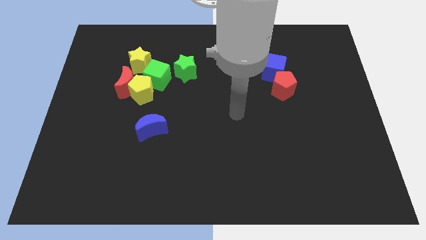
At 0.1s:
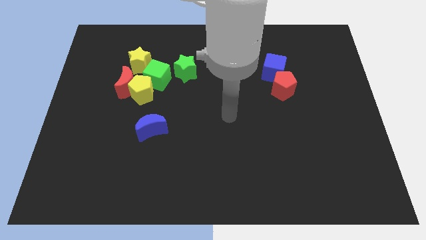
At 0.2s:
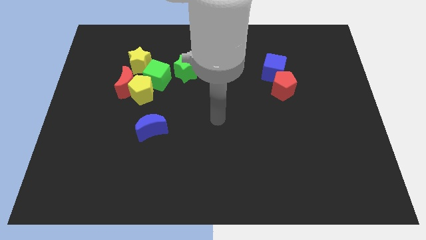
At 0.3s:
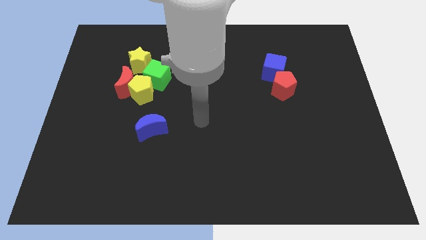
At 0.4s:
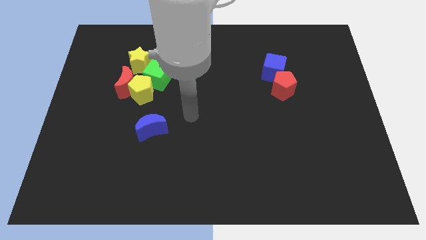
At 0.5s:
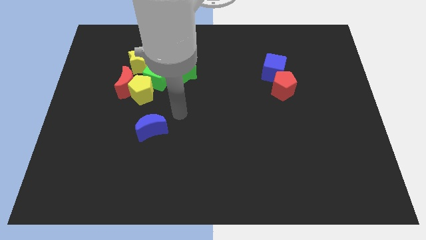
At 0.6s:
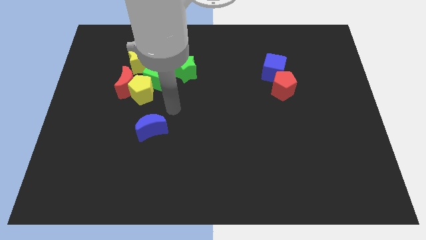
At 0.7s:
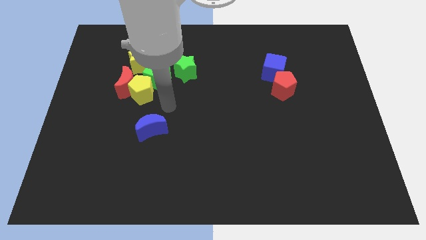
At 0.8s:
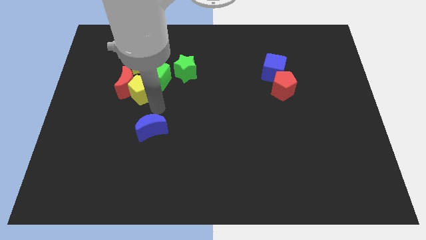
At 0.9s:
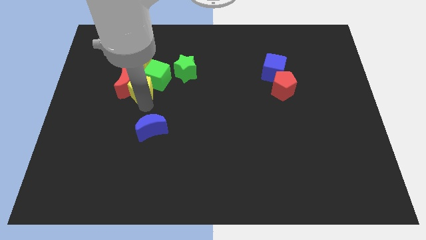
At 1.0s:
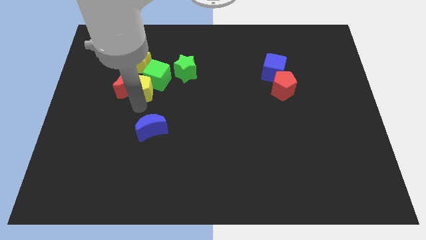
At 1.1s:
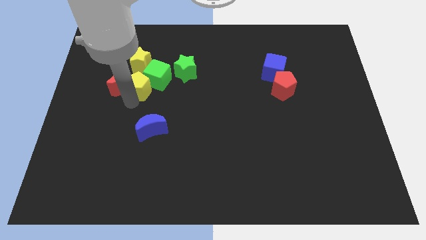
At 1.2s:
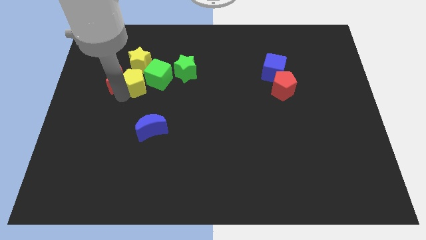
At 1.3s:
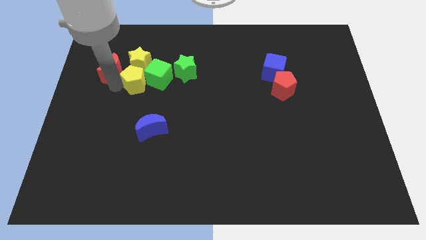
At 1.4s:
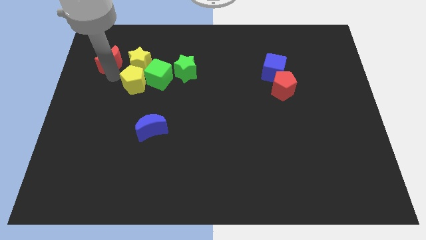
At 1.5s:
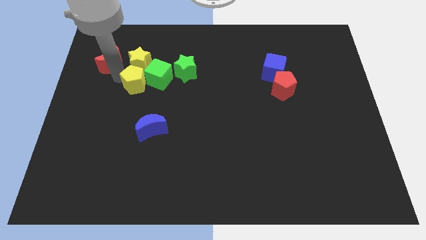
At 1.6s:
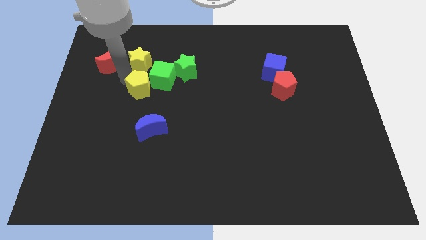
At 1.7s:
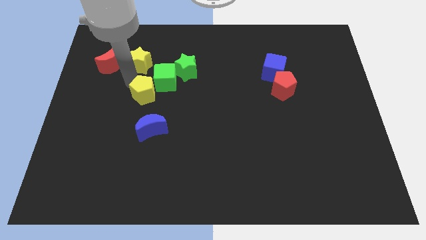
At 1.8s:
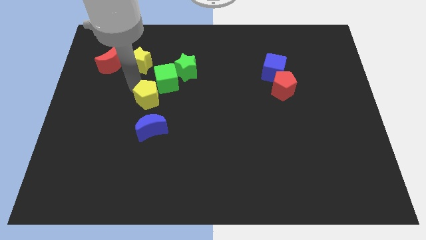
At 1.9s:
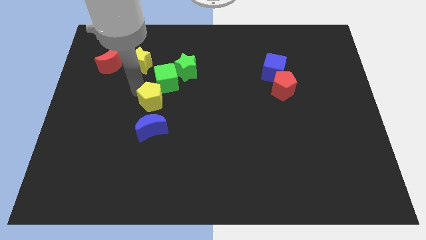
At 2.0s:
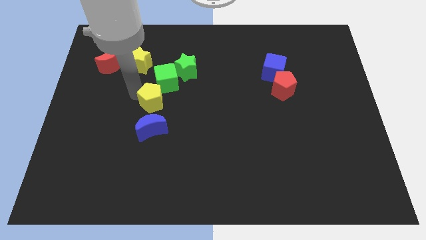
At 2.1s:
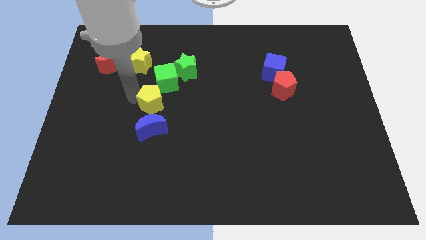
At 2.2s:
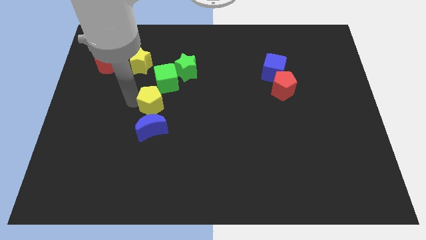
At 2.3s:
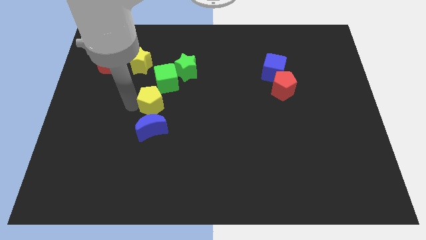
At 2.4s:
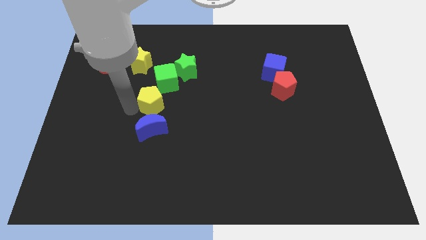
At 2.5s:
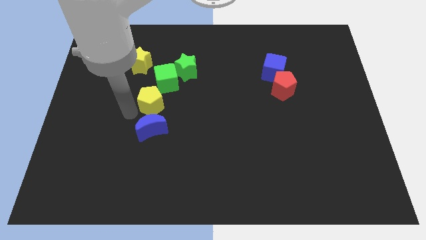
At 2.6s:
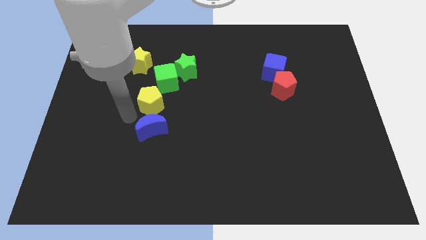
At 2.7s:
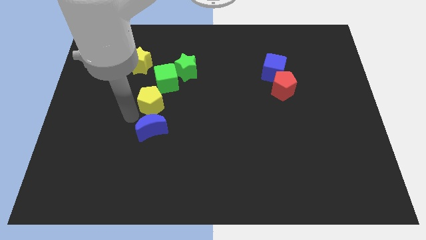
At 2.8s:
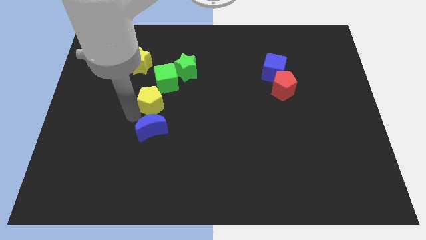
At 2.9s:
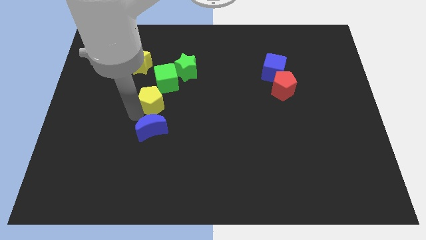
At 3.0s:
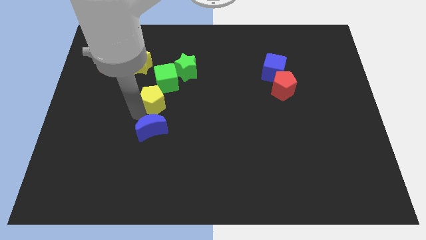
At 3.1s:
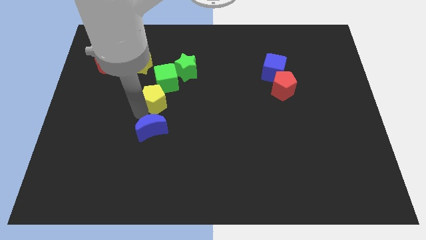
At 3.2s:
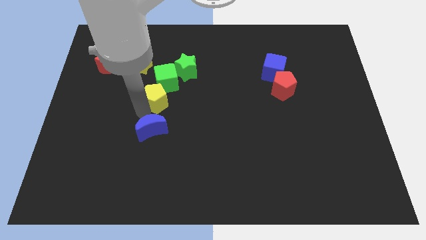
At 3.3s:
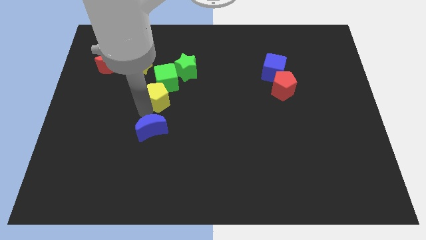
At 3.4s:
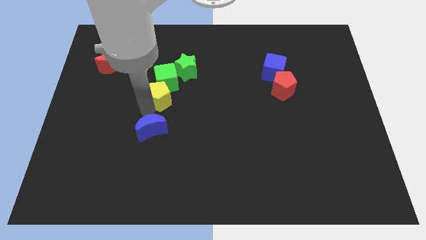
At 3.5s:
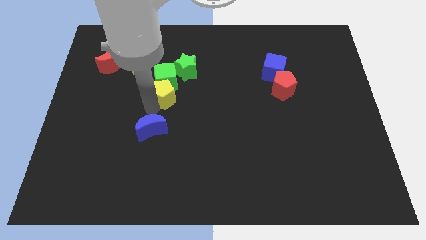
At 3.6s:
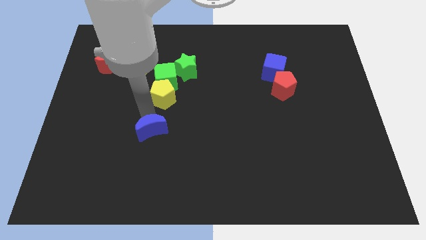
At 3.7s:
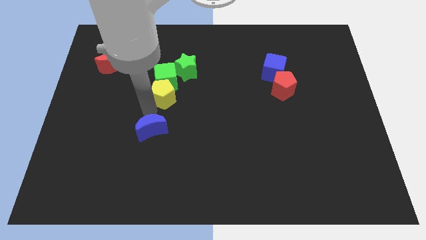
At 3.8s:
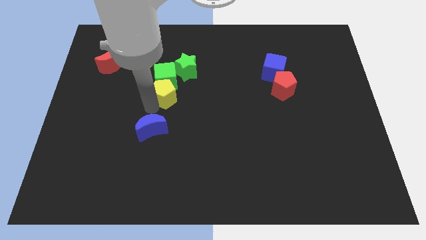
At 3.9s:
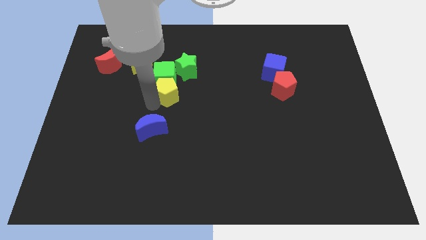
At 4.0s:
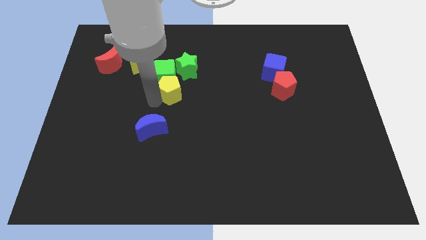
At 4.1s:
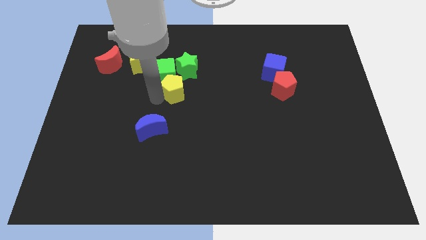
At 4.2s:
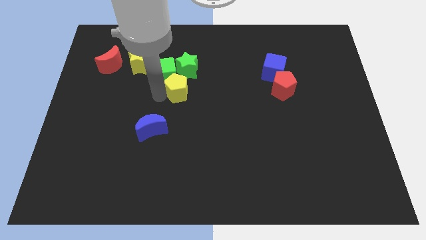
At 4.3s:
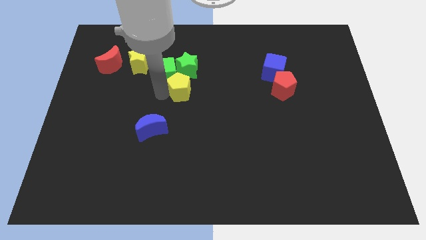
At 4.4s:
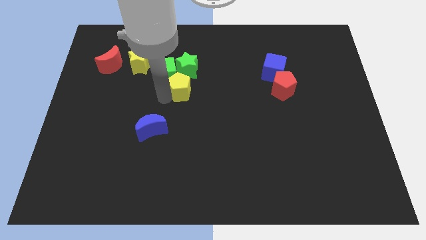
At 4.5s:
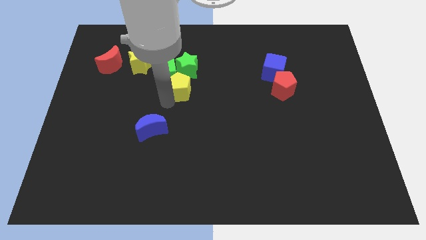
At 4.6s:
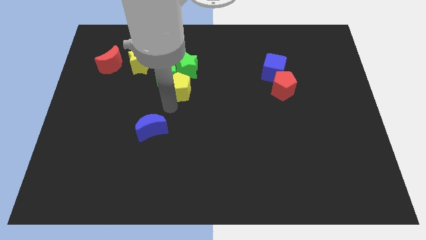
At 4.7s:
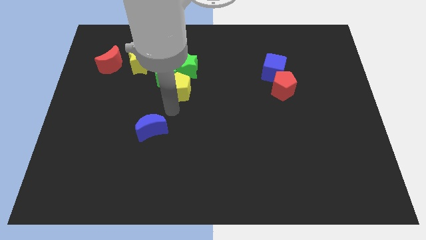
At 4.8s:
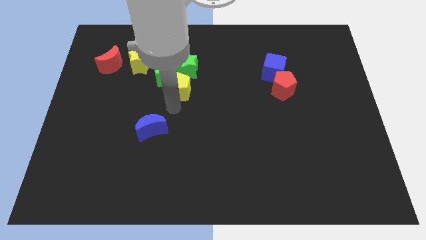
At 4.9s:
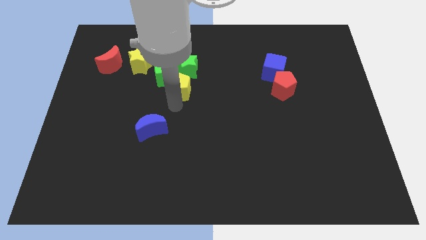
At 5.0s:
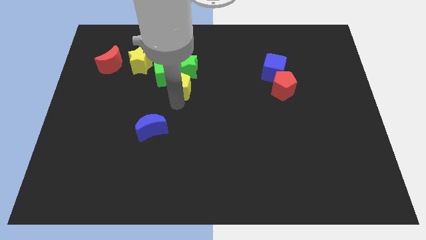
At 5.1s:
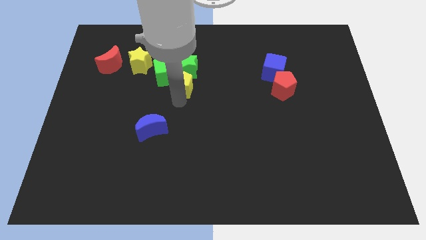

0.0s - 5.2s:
move the yellow pentagon towards the green star

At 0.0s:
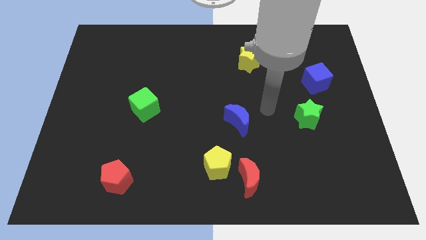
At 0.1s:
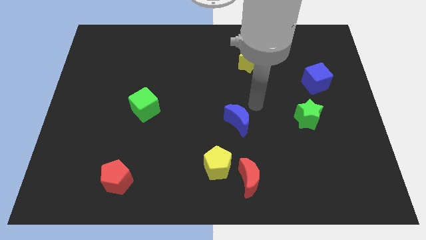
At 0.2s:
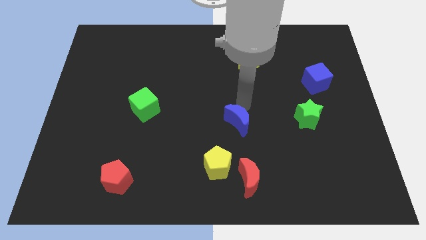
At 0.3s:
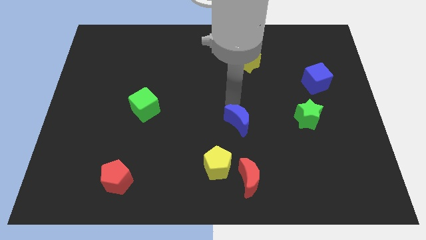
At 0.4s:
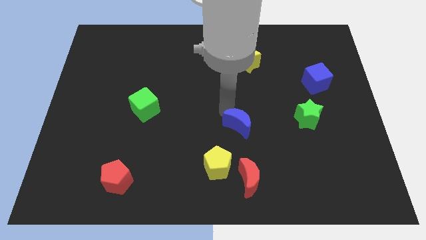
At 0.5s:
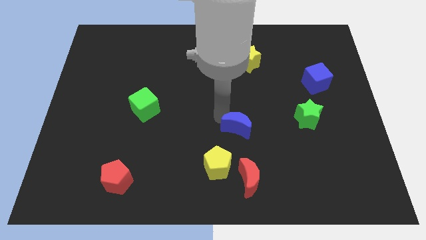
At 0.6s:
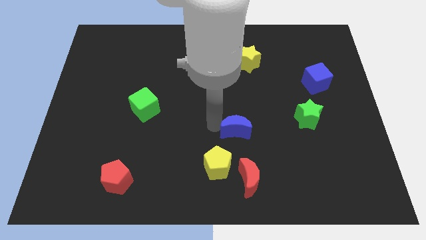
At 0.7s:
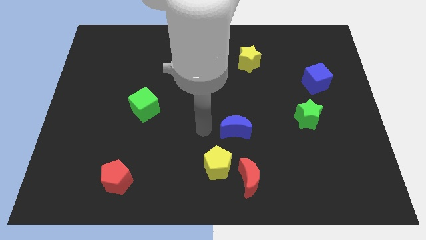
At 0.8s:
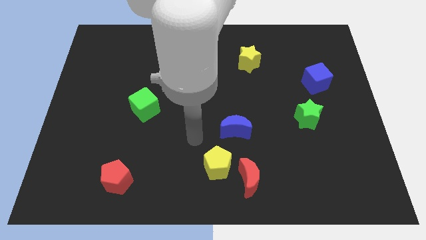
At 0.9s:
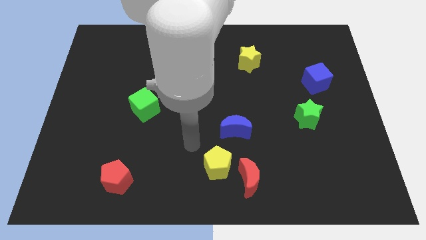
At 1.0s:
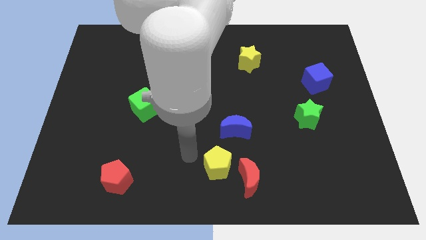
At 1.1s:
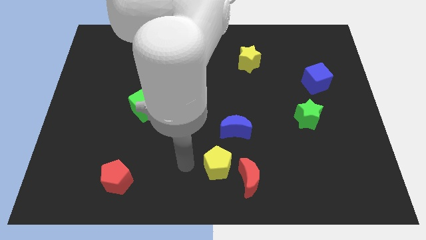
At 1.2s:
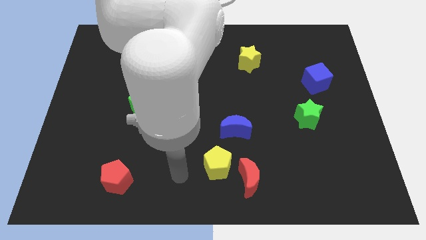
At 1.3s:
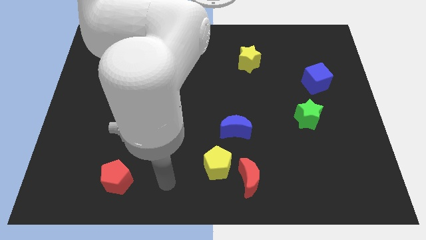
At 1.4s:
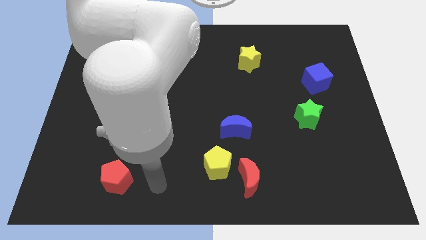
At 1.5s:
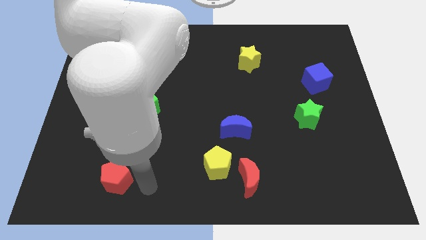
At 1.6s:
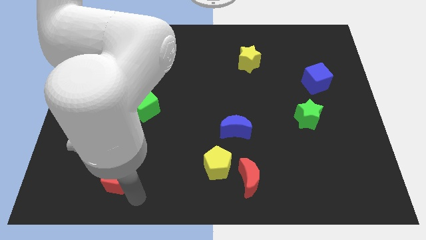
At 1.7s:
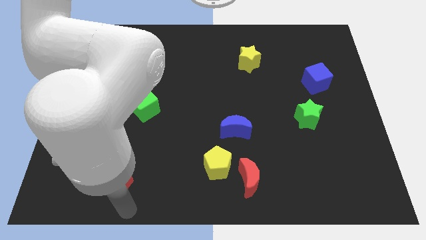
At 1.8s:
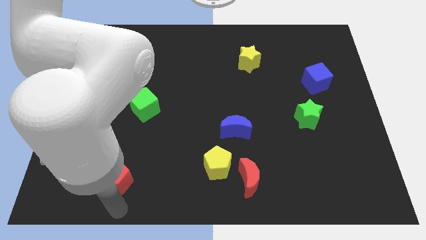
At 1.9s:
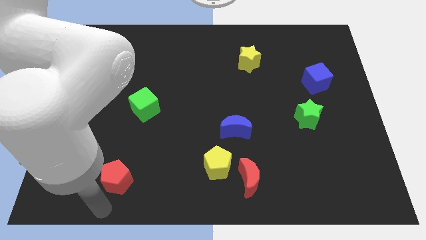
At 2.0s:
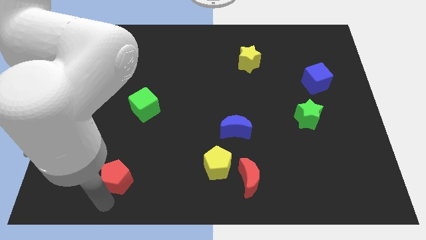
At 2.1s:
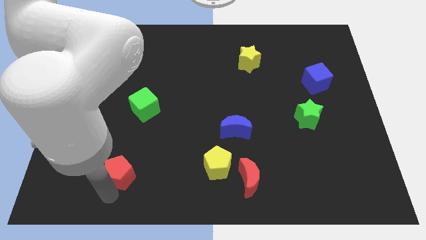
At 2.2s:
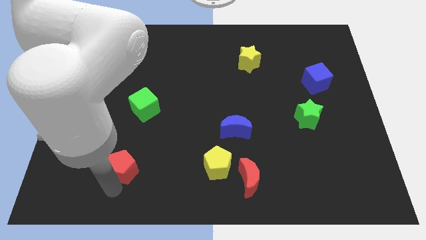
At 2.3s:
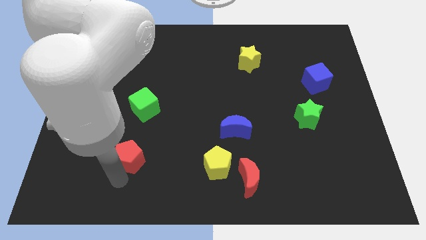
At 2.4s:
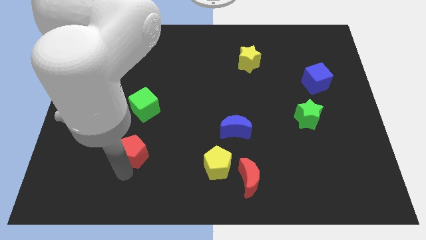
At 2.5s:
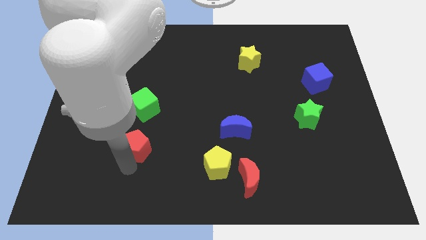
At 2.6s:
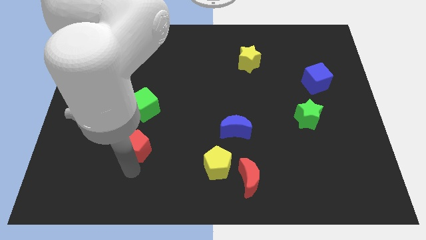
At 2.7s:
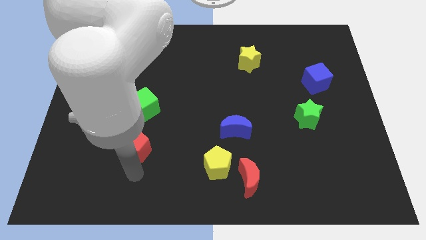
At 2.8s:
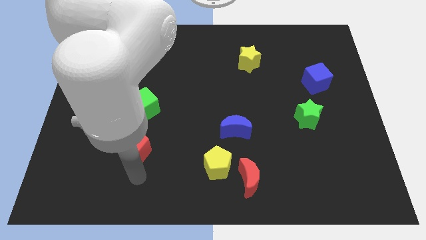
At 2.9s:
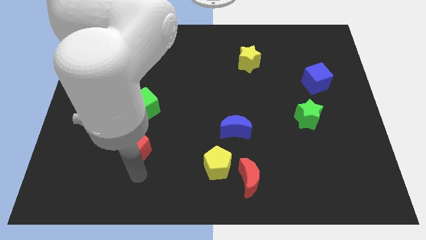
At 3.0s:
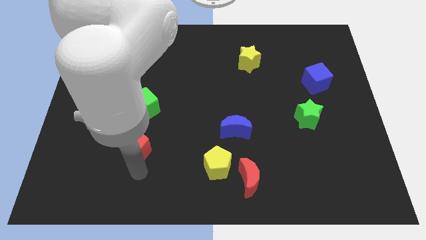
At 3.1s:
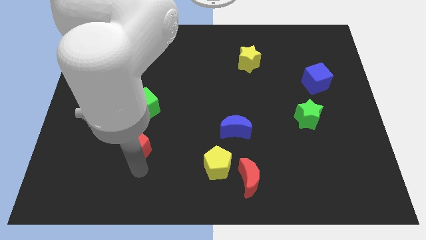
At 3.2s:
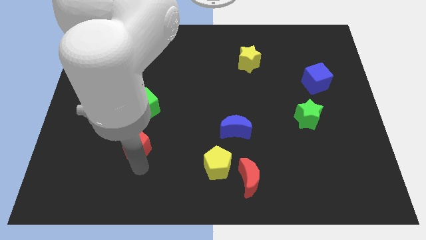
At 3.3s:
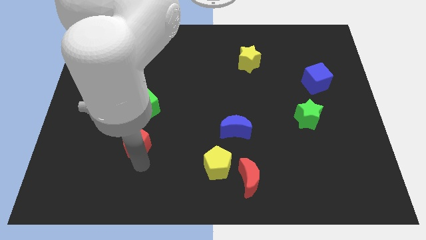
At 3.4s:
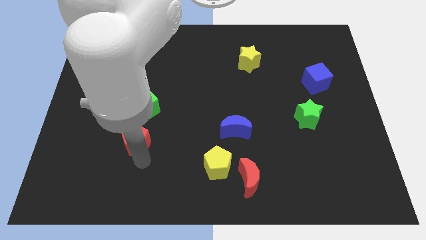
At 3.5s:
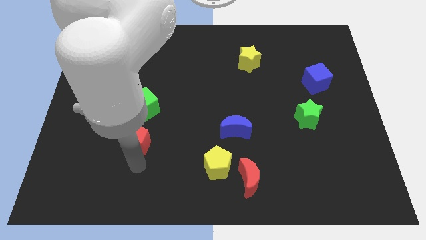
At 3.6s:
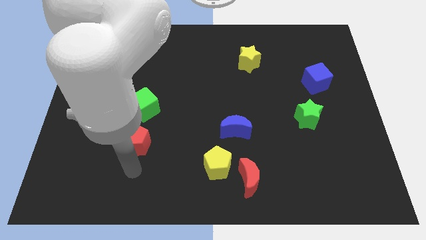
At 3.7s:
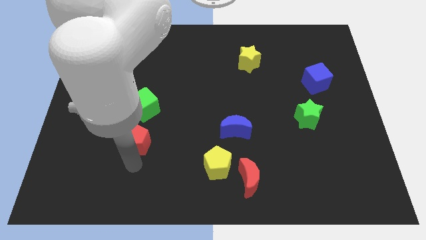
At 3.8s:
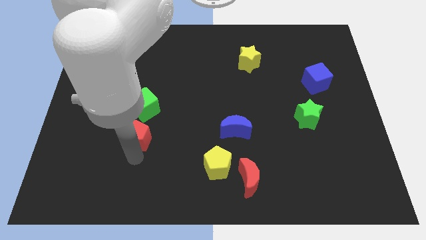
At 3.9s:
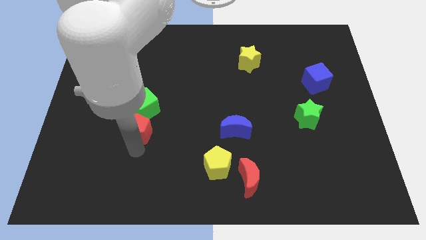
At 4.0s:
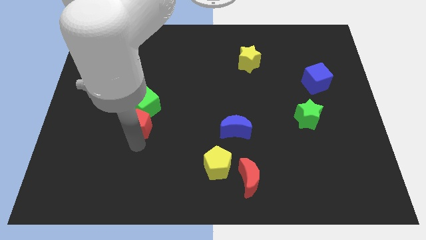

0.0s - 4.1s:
put the red pentagon next to the green cube
